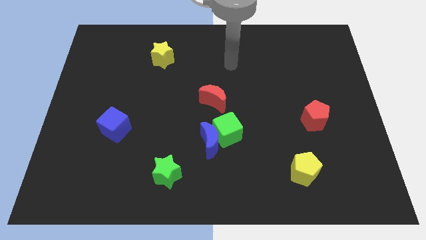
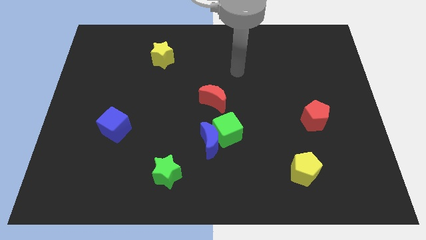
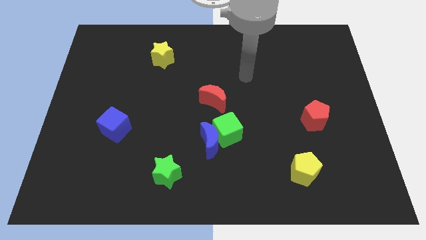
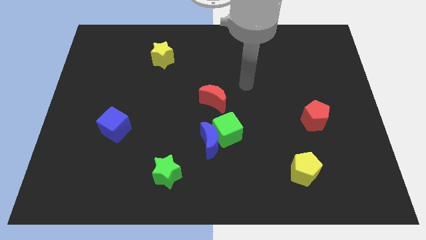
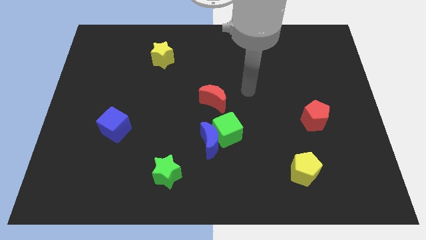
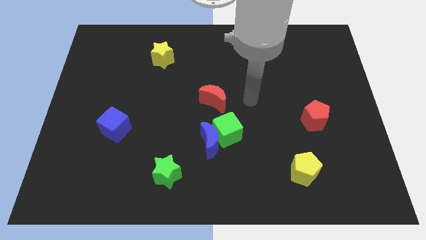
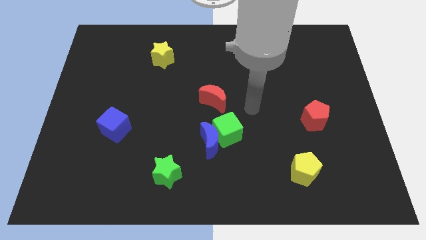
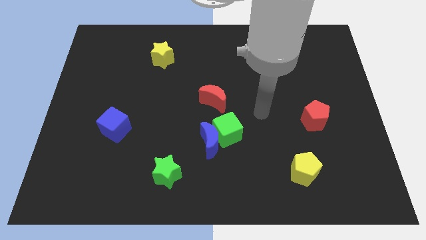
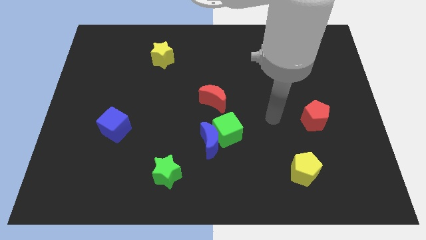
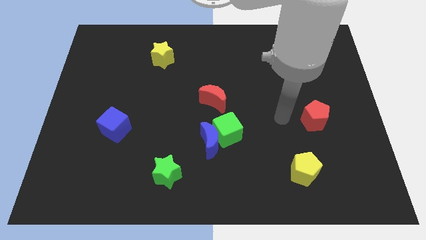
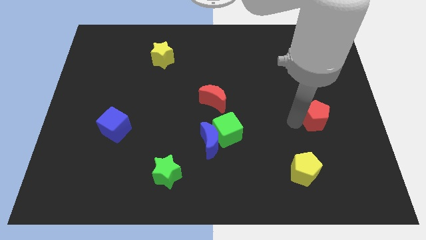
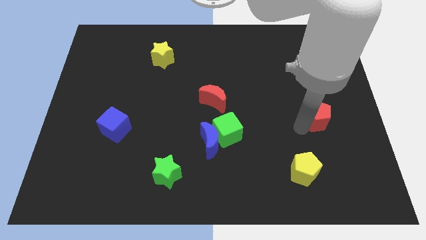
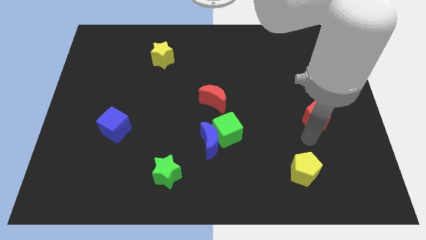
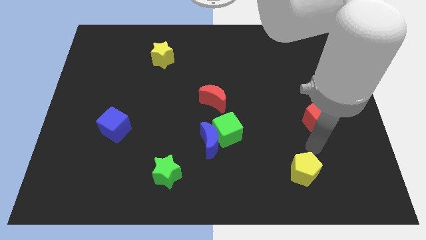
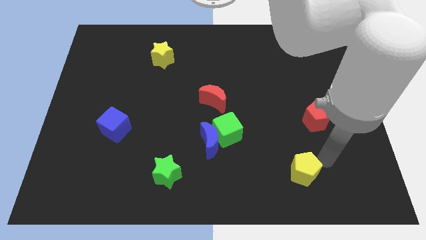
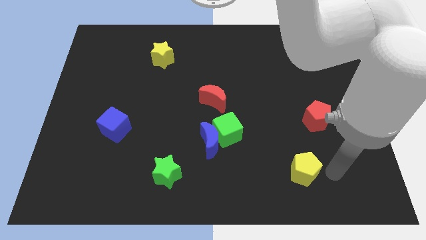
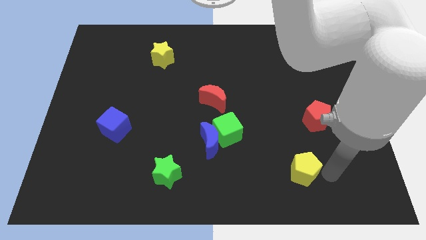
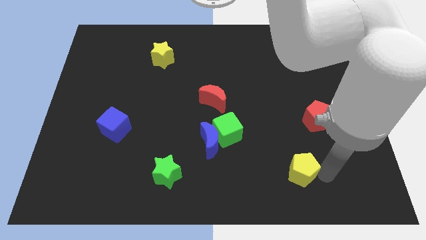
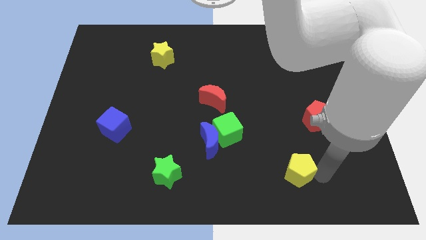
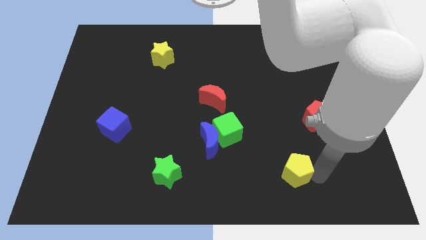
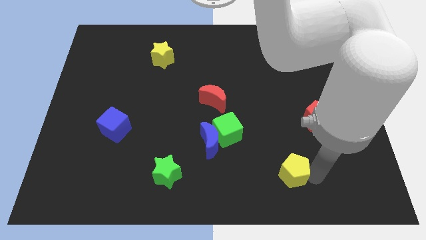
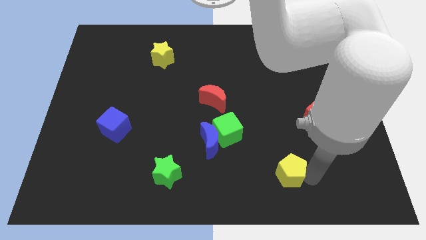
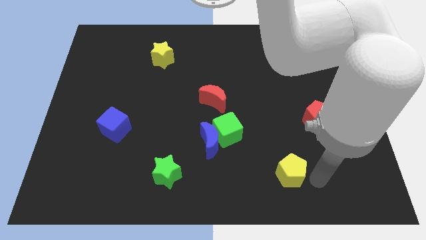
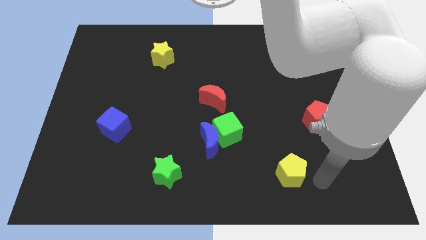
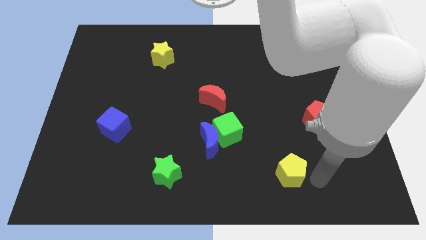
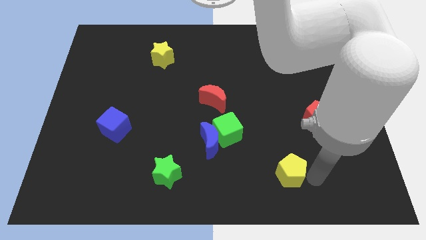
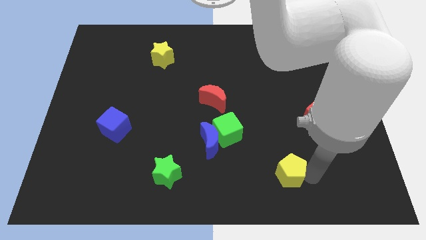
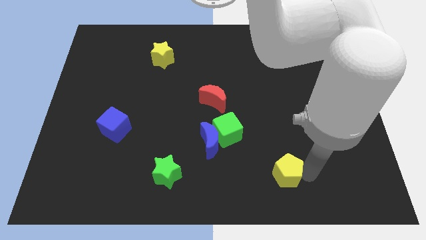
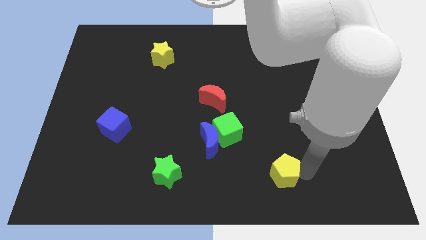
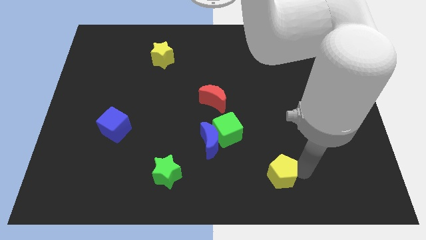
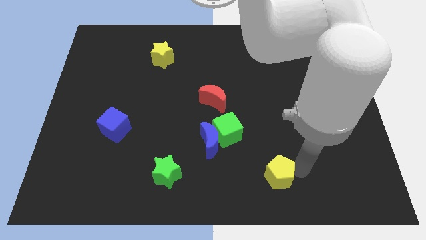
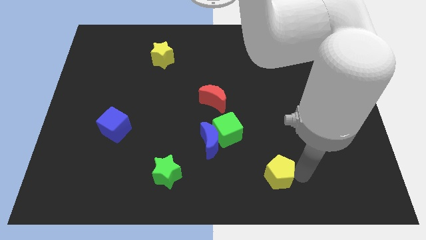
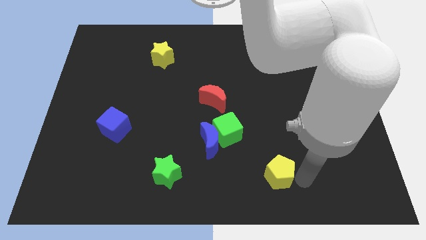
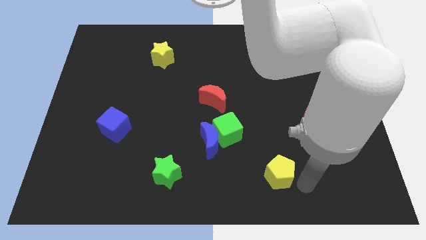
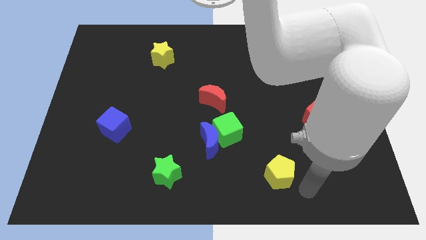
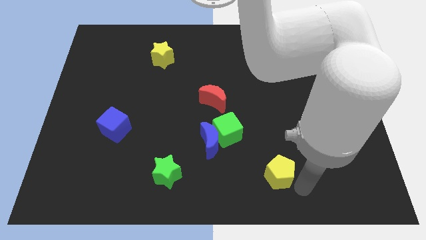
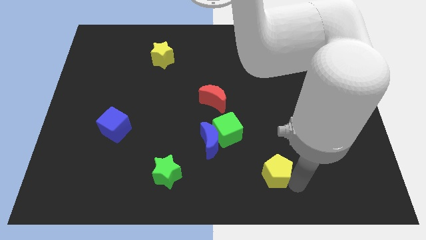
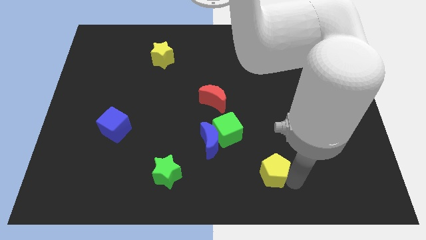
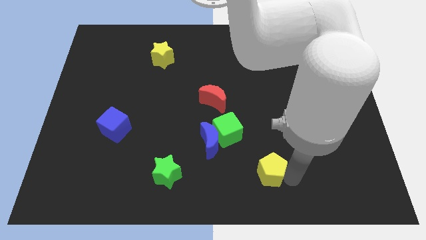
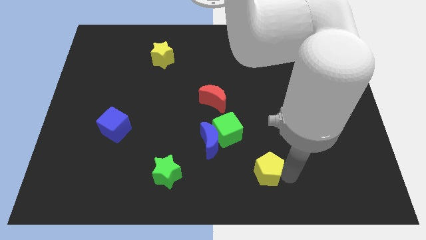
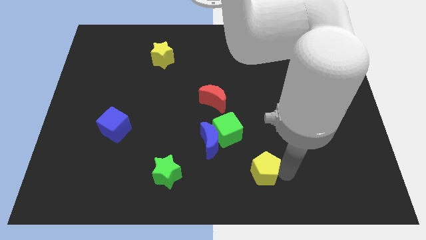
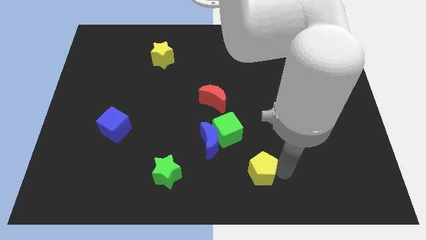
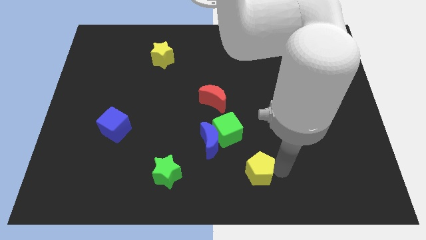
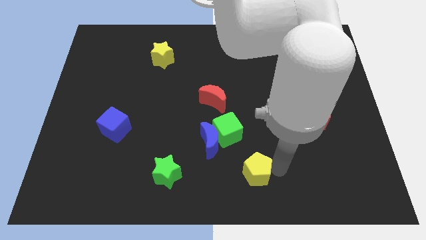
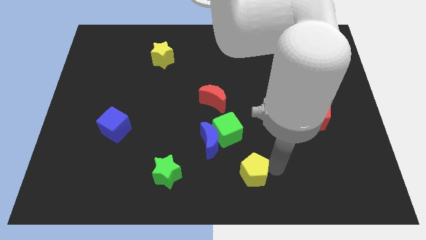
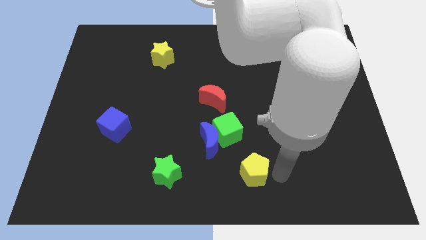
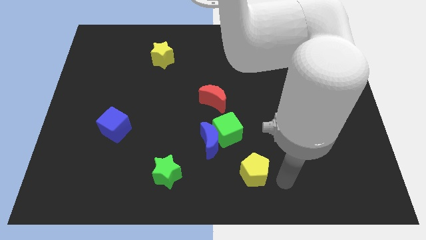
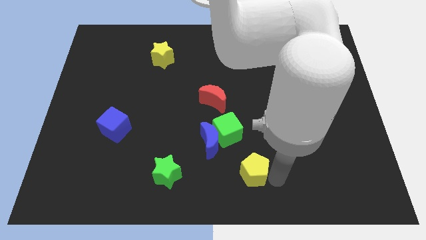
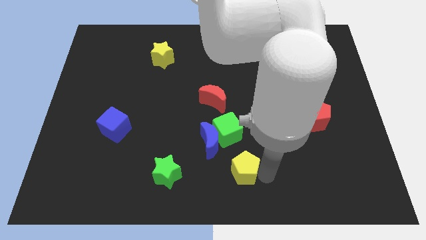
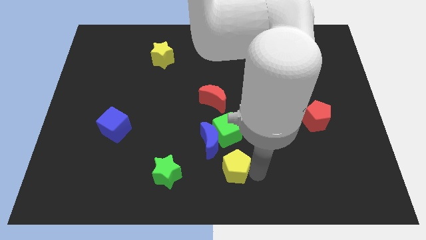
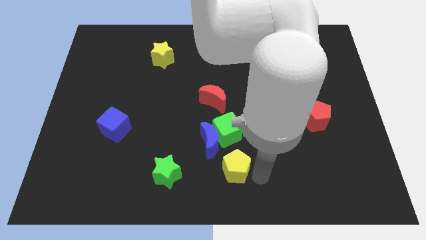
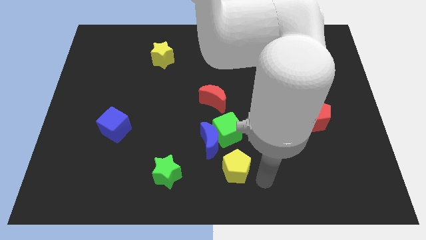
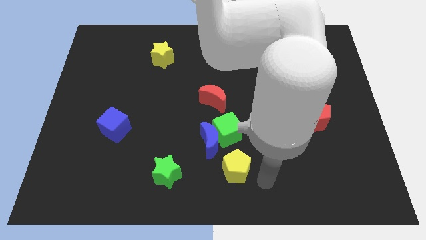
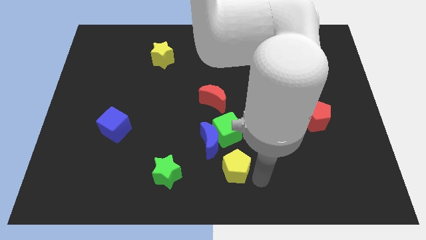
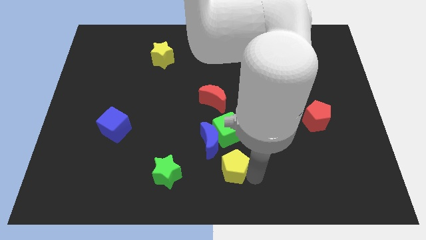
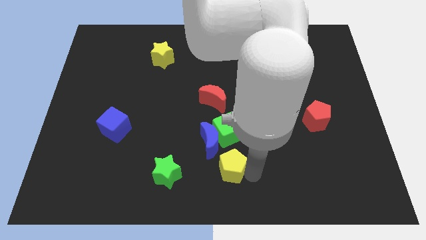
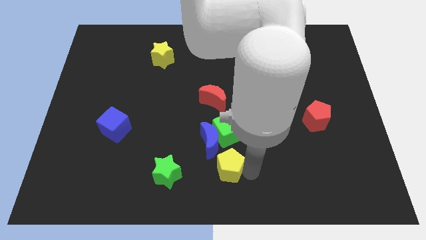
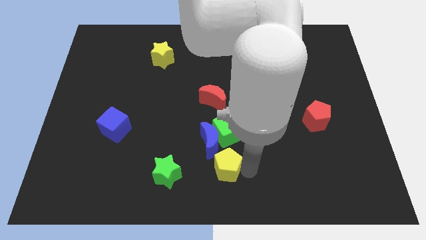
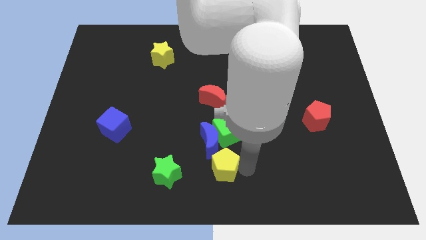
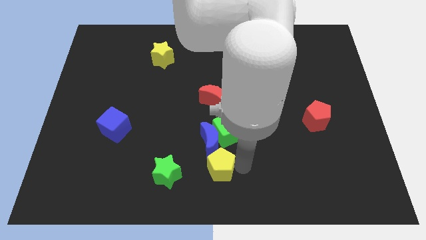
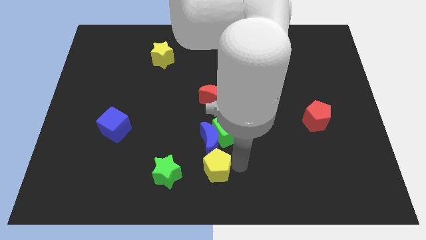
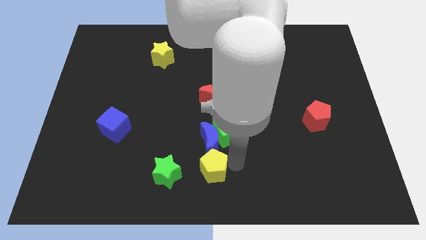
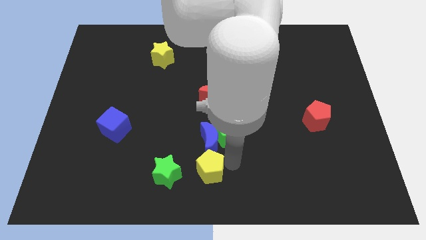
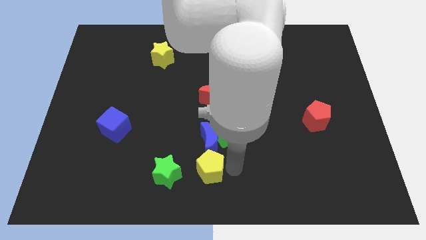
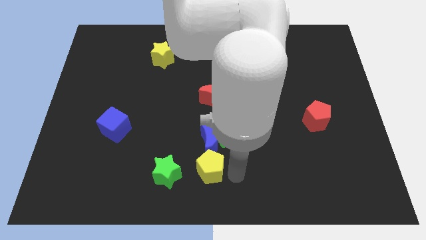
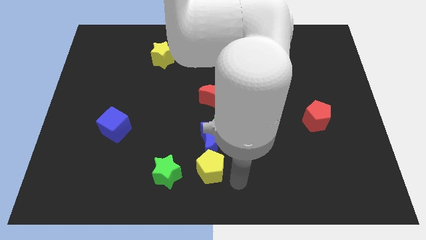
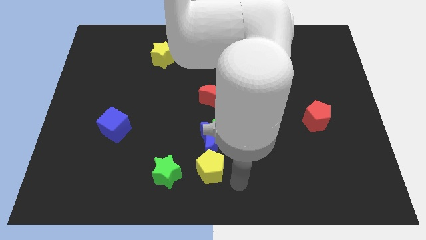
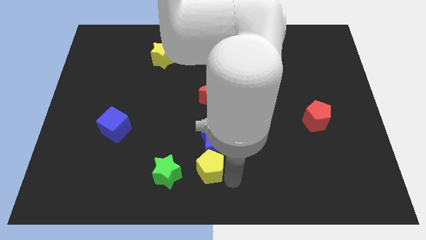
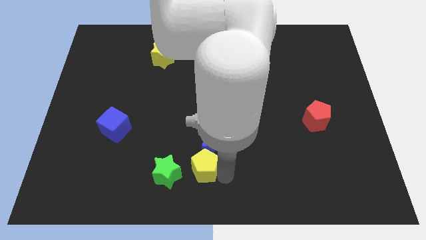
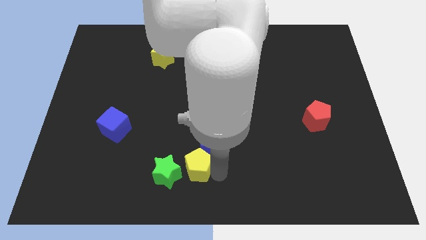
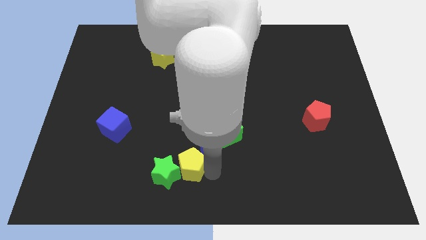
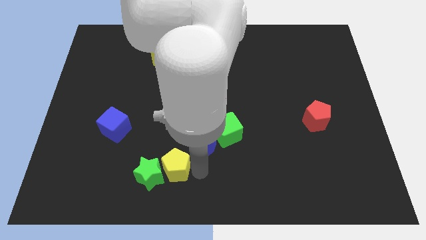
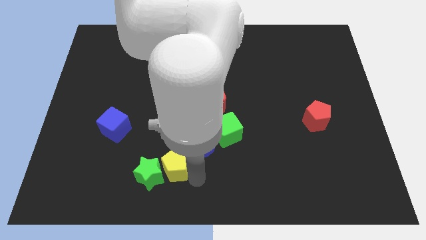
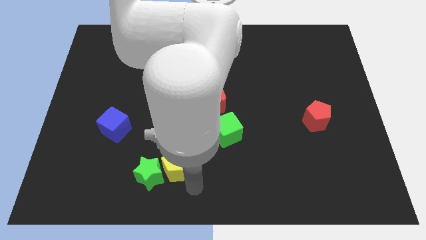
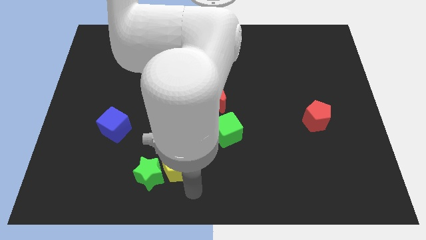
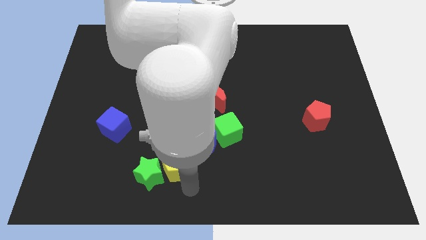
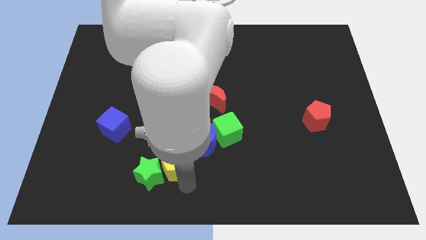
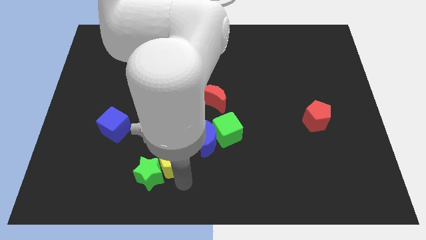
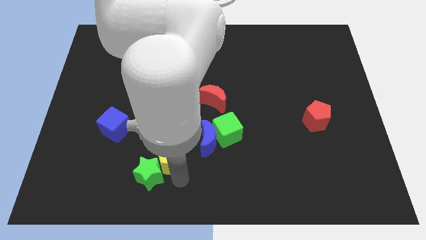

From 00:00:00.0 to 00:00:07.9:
move the yellow pentagon to the top of the green star
